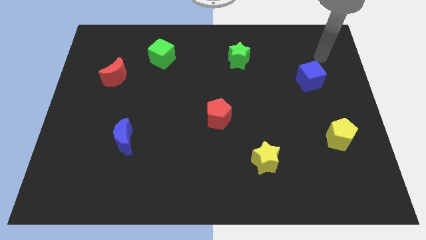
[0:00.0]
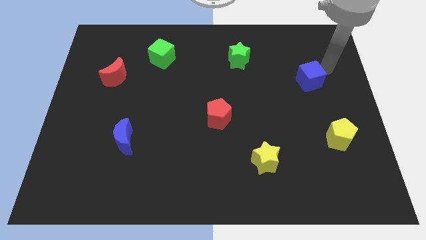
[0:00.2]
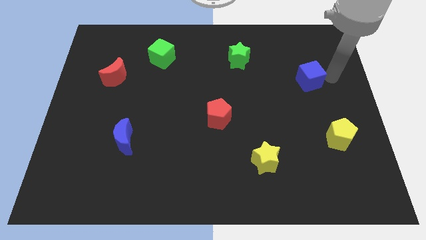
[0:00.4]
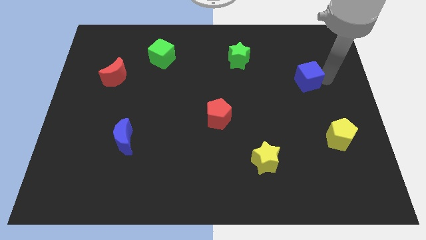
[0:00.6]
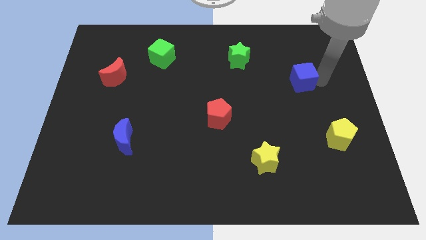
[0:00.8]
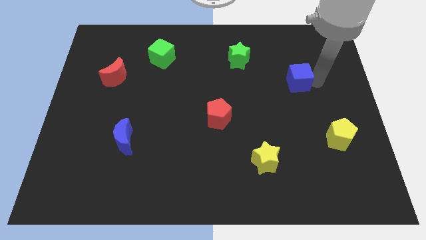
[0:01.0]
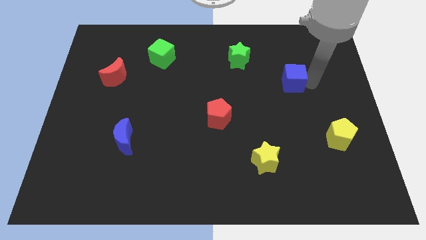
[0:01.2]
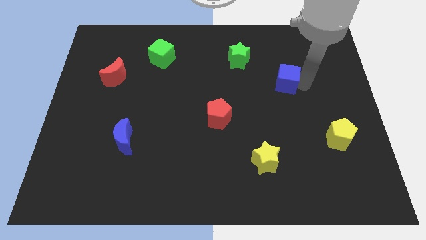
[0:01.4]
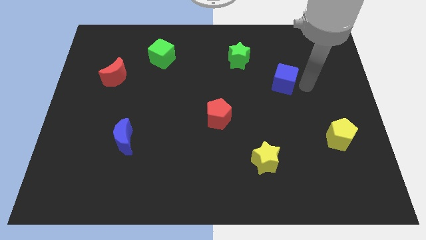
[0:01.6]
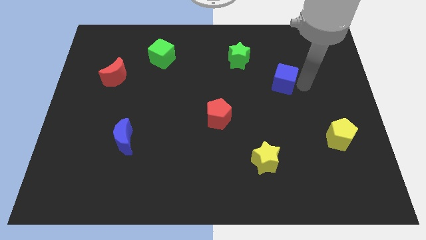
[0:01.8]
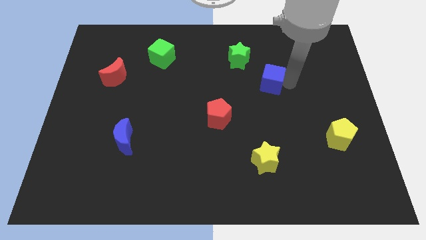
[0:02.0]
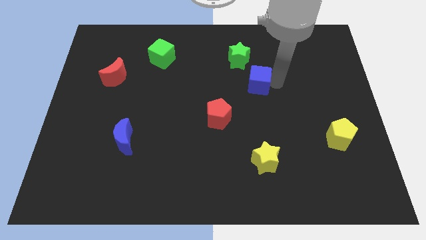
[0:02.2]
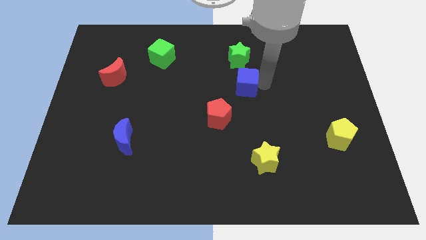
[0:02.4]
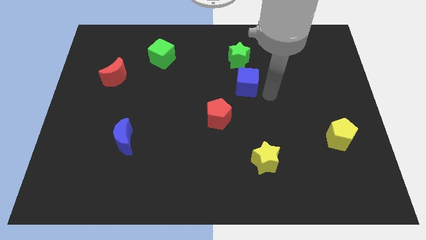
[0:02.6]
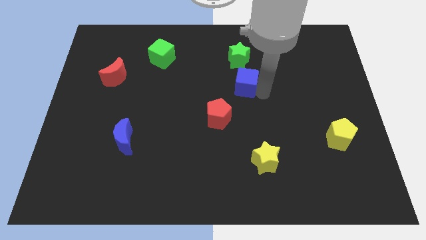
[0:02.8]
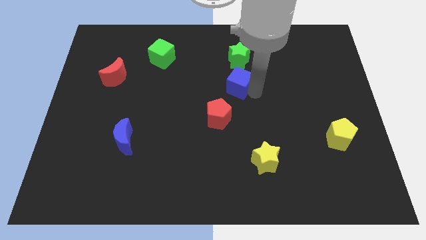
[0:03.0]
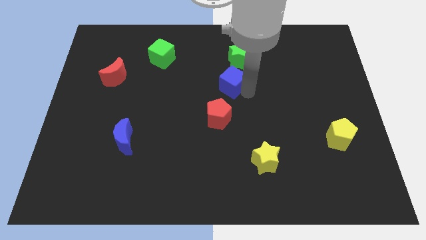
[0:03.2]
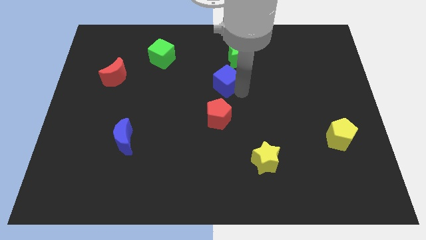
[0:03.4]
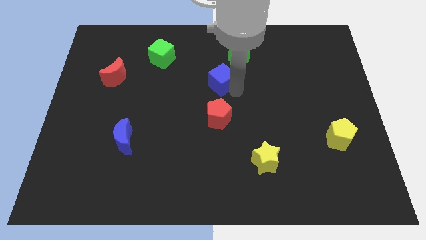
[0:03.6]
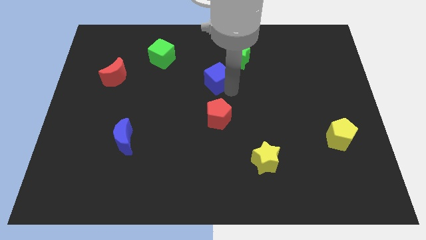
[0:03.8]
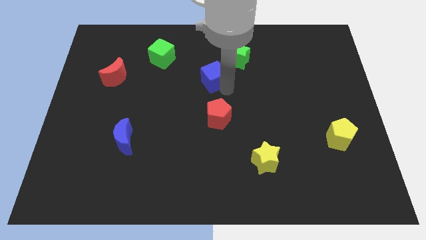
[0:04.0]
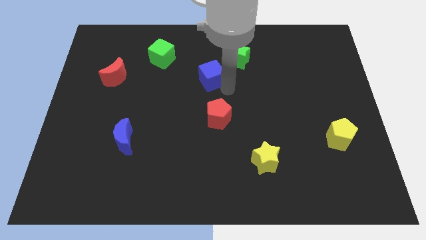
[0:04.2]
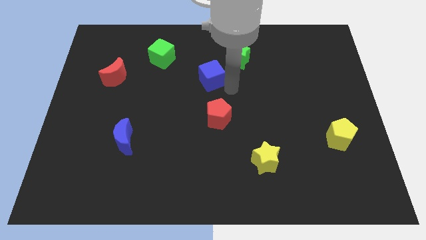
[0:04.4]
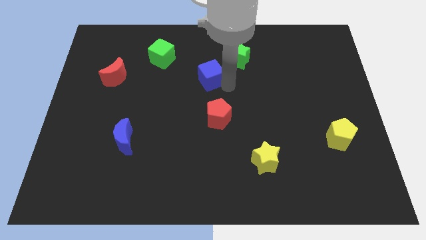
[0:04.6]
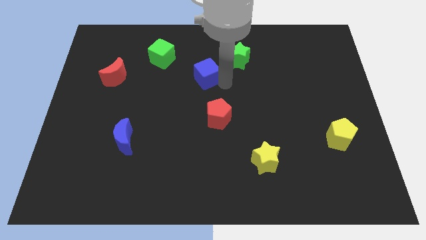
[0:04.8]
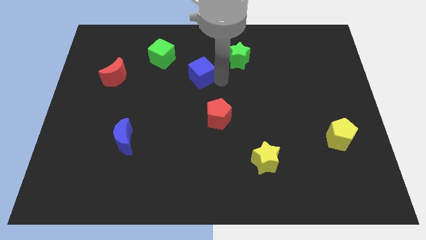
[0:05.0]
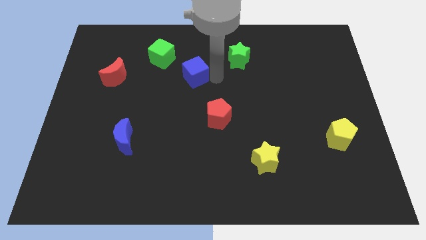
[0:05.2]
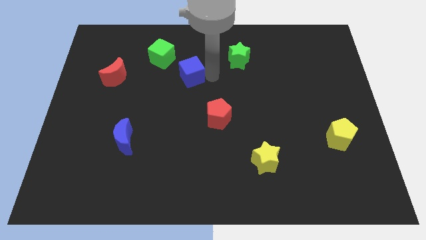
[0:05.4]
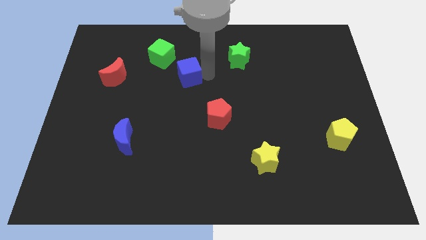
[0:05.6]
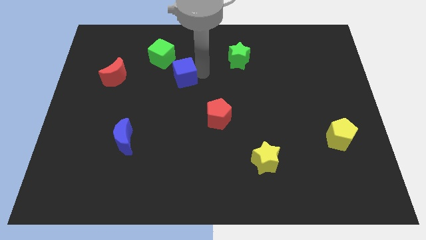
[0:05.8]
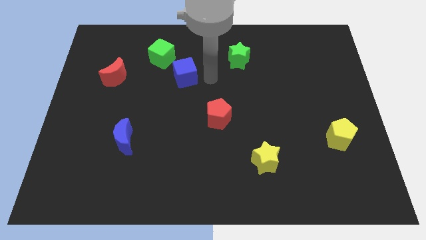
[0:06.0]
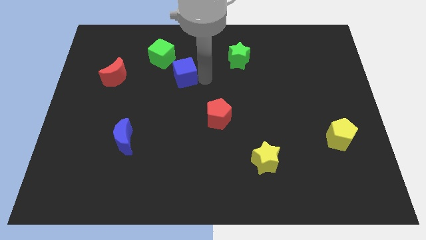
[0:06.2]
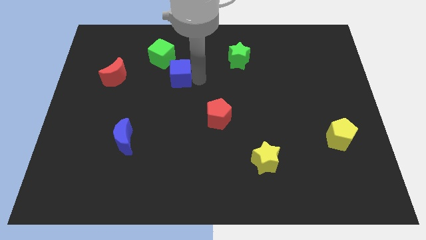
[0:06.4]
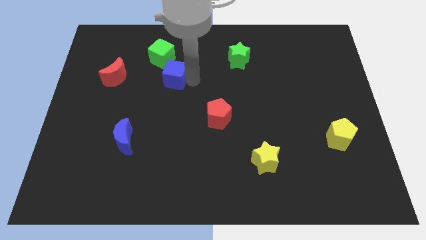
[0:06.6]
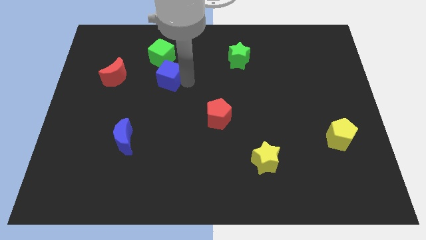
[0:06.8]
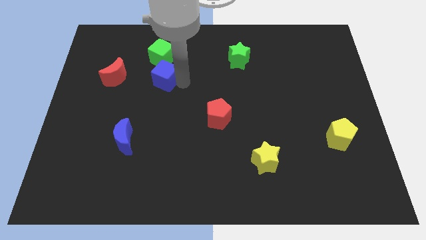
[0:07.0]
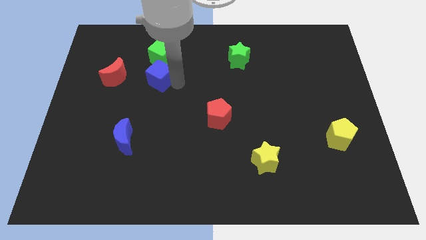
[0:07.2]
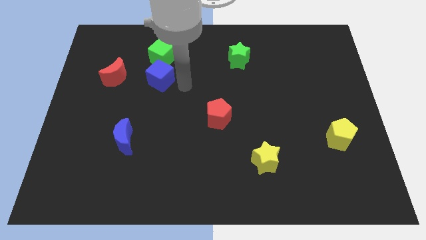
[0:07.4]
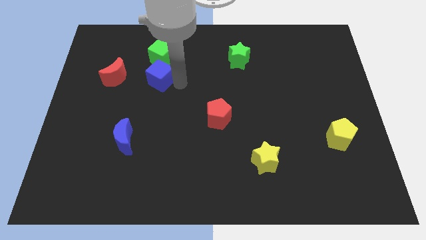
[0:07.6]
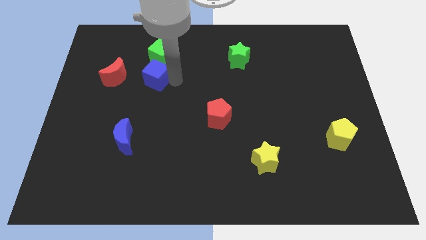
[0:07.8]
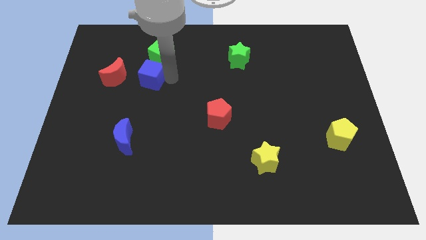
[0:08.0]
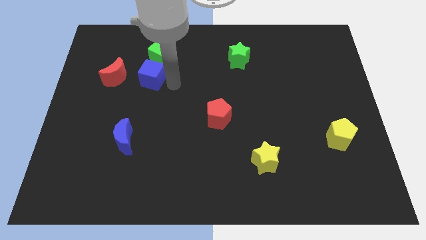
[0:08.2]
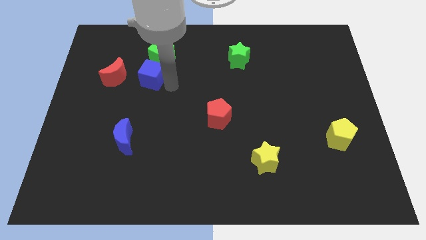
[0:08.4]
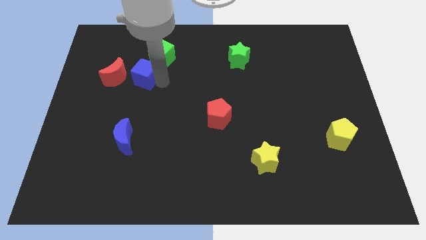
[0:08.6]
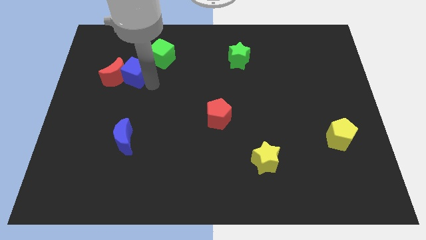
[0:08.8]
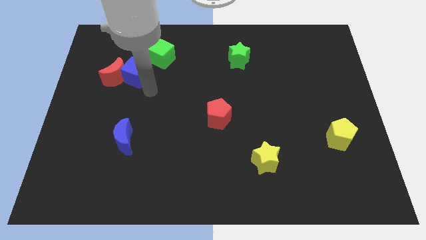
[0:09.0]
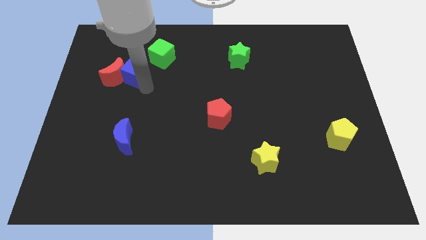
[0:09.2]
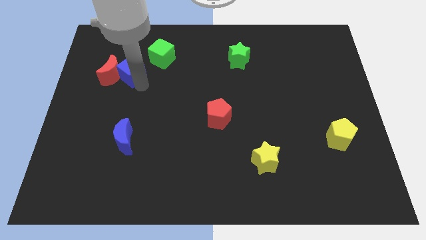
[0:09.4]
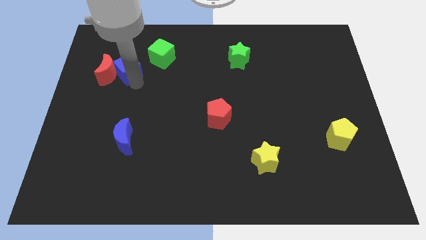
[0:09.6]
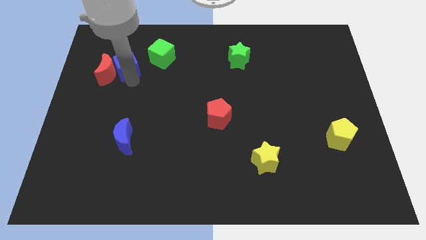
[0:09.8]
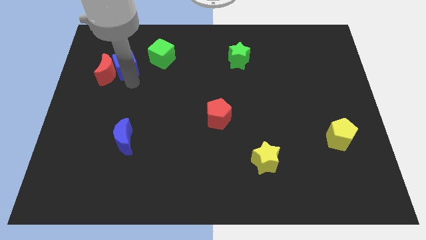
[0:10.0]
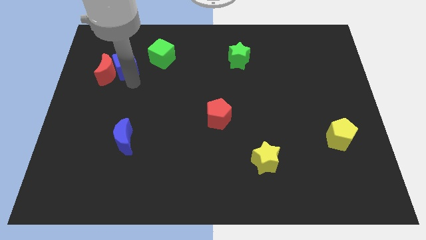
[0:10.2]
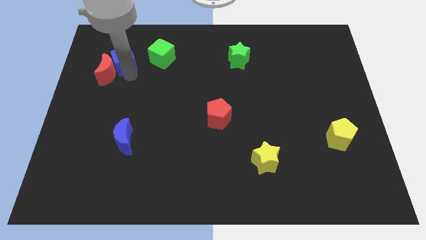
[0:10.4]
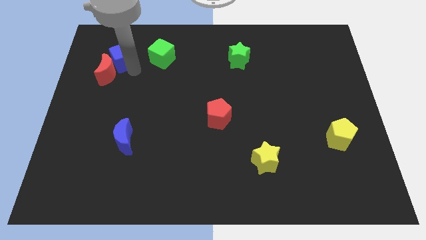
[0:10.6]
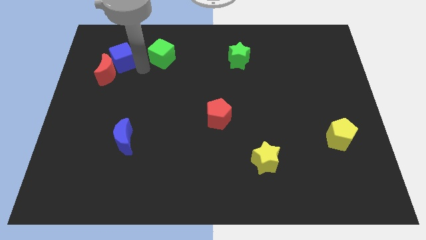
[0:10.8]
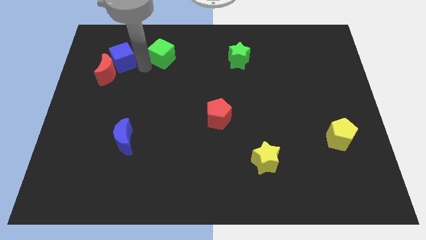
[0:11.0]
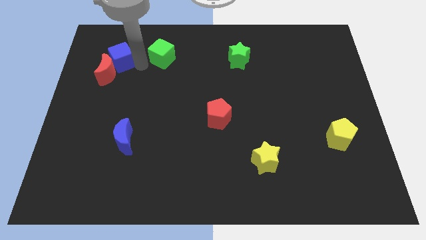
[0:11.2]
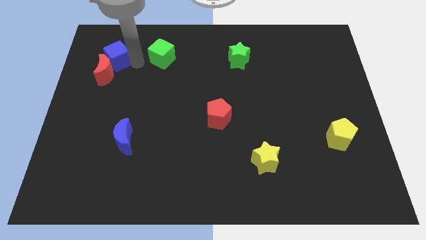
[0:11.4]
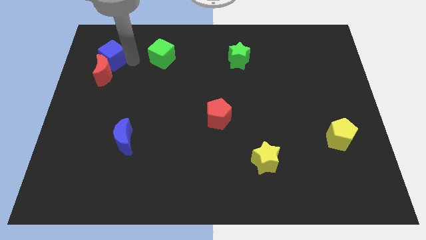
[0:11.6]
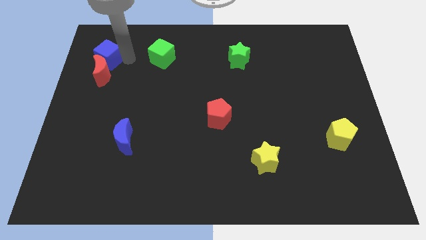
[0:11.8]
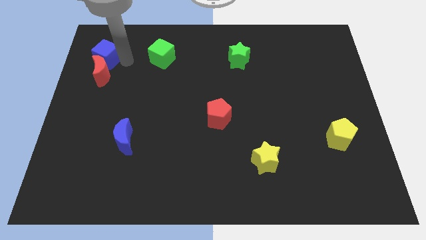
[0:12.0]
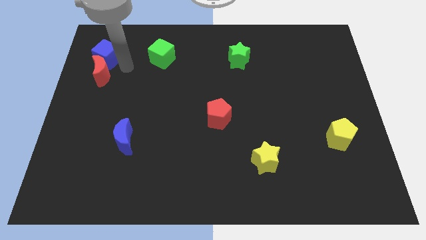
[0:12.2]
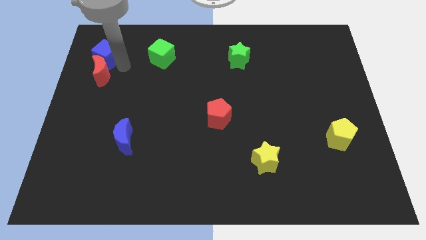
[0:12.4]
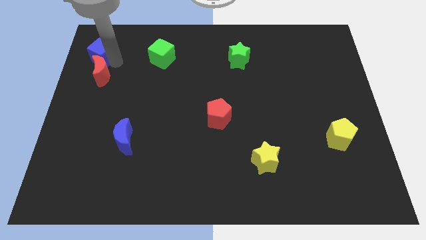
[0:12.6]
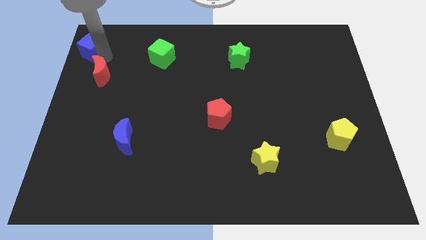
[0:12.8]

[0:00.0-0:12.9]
move the blue cube to the top left corner
